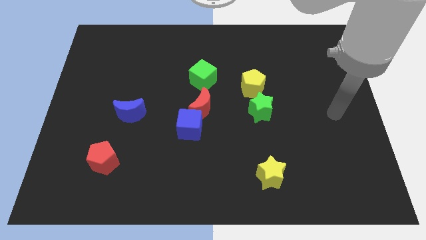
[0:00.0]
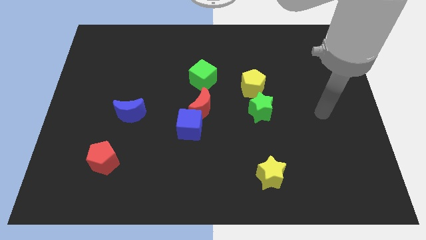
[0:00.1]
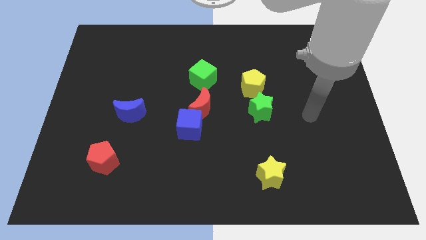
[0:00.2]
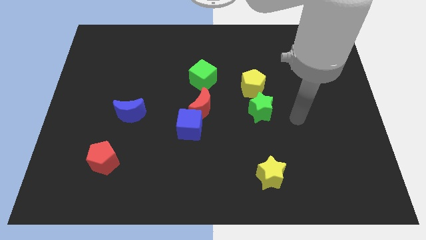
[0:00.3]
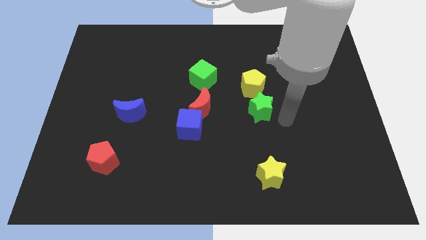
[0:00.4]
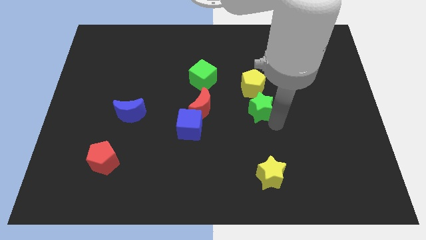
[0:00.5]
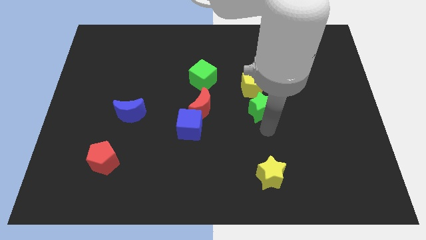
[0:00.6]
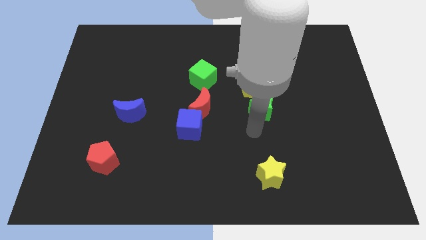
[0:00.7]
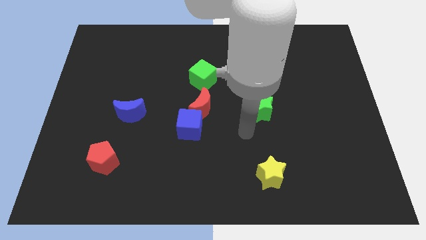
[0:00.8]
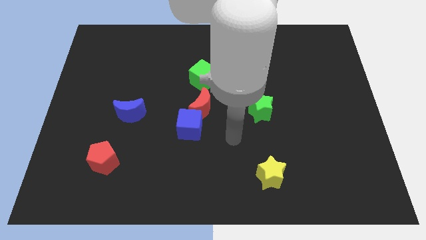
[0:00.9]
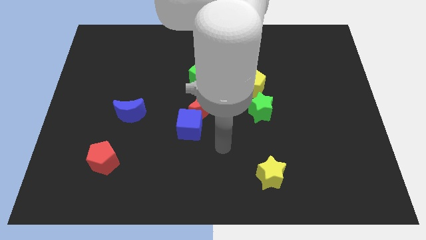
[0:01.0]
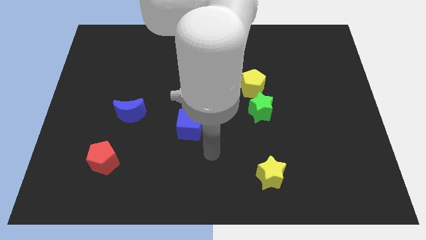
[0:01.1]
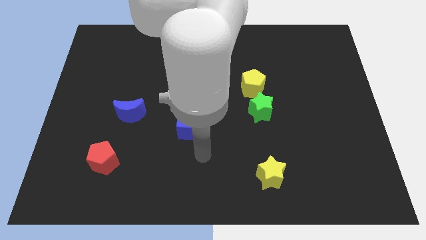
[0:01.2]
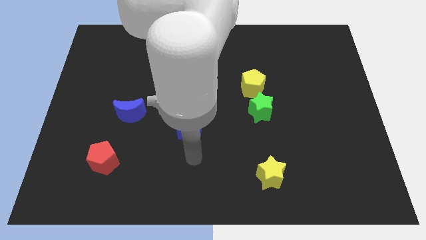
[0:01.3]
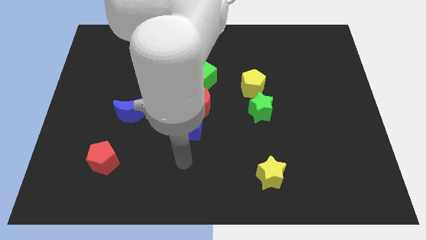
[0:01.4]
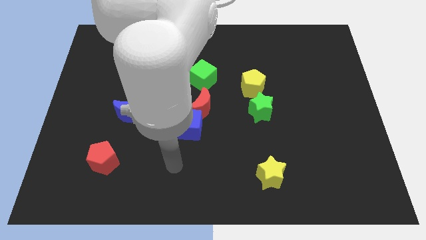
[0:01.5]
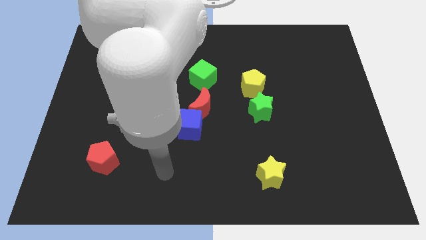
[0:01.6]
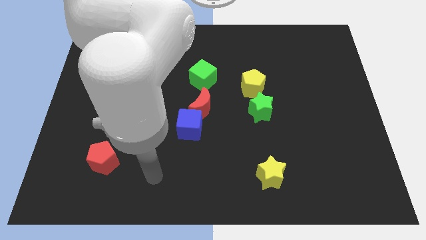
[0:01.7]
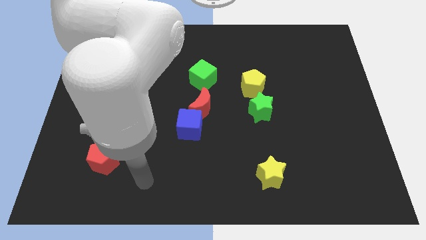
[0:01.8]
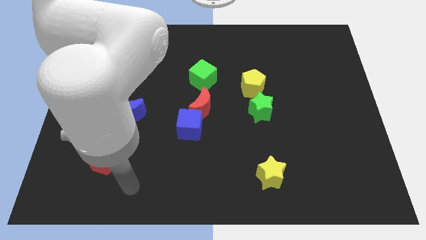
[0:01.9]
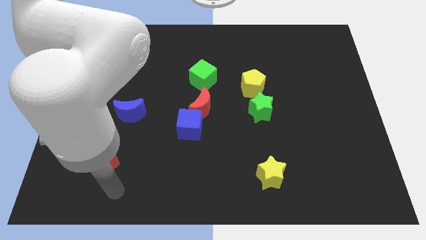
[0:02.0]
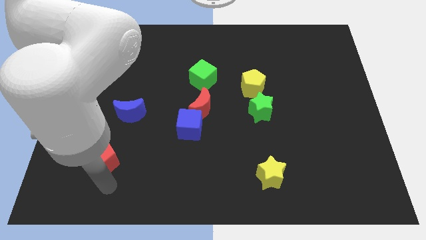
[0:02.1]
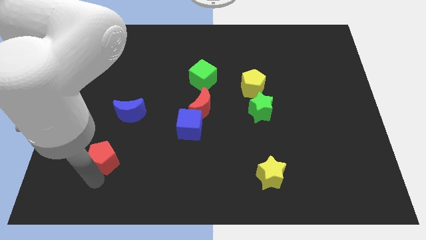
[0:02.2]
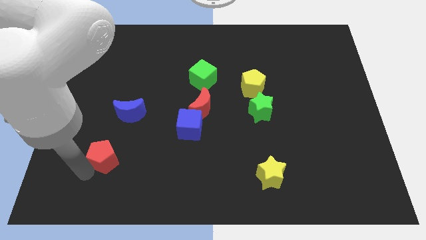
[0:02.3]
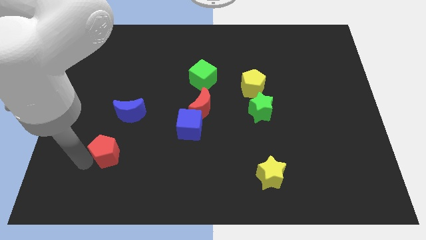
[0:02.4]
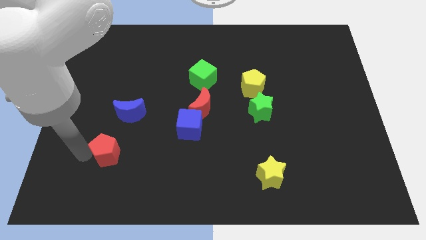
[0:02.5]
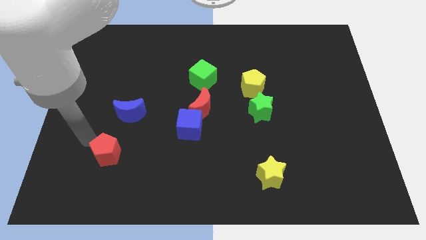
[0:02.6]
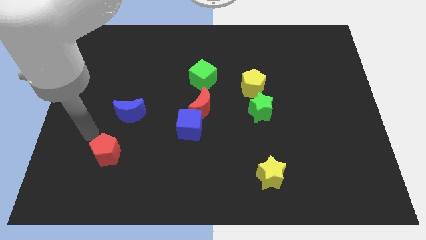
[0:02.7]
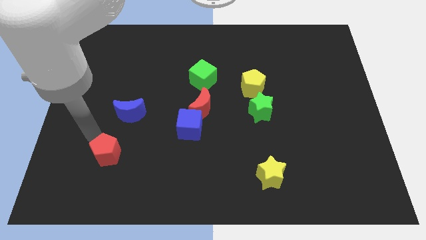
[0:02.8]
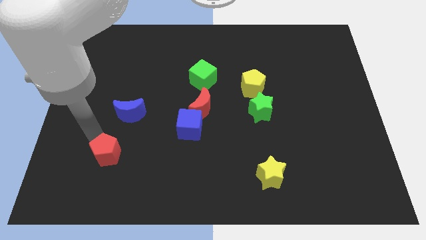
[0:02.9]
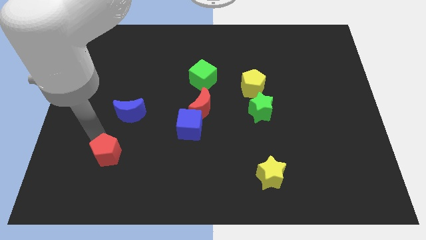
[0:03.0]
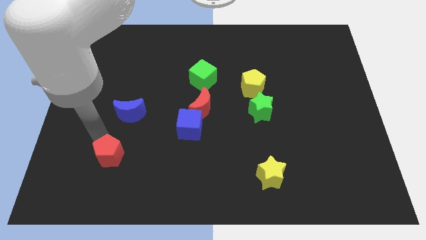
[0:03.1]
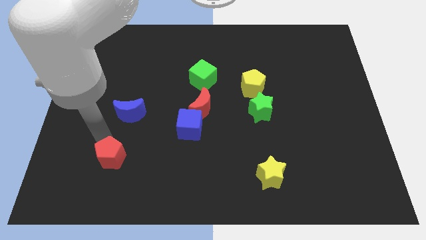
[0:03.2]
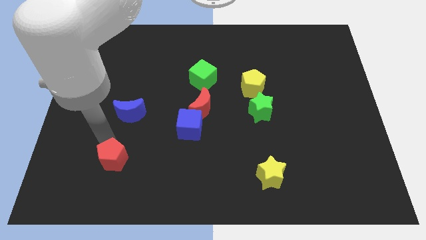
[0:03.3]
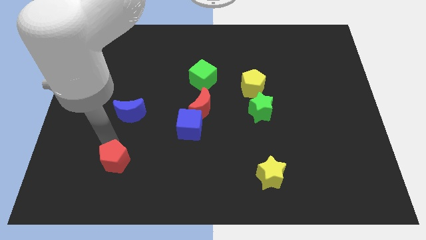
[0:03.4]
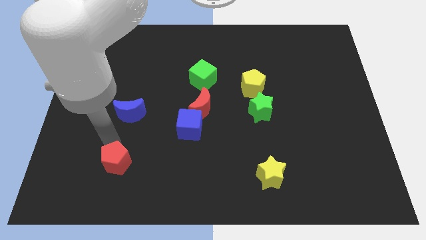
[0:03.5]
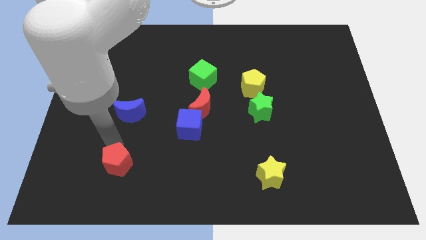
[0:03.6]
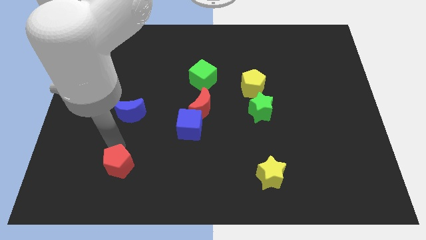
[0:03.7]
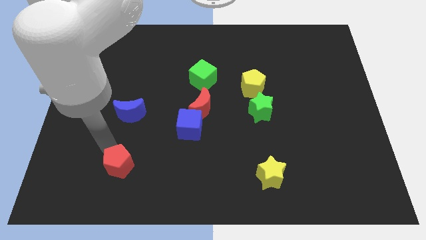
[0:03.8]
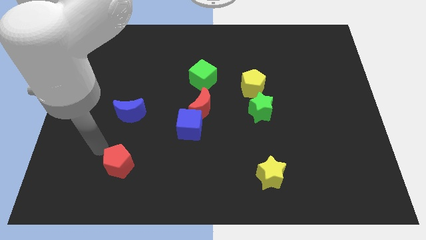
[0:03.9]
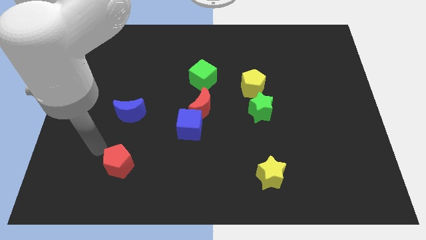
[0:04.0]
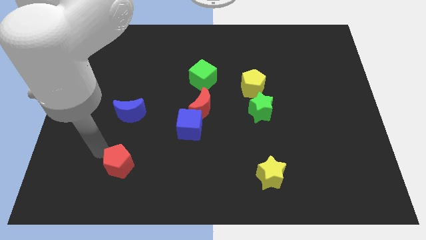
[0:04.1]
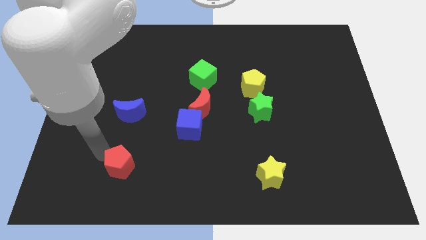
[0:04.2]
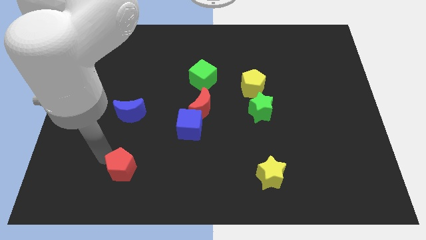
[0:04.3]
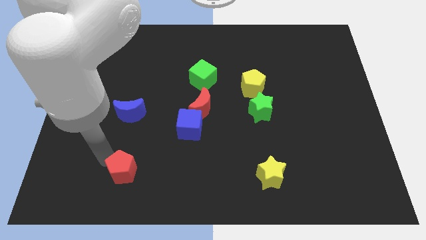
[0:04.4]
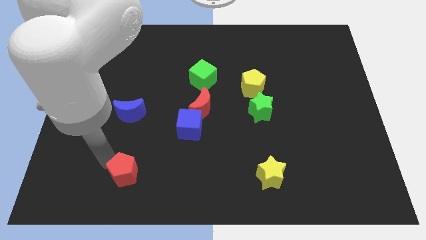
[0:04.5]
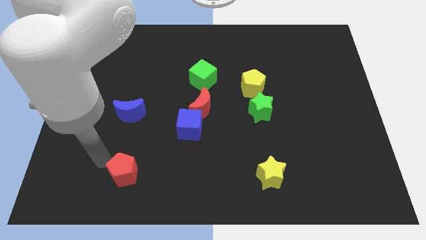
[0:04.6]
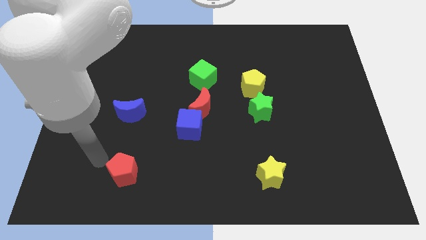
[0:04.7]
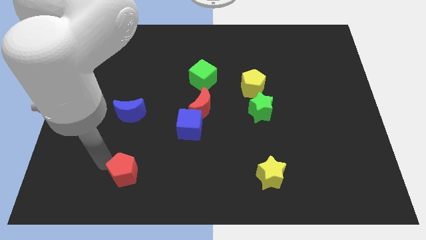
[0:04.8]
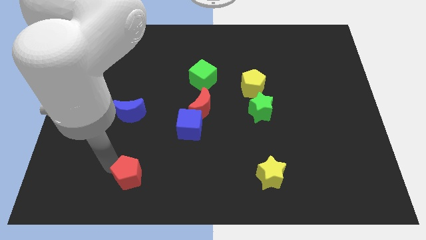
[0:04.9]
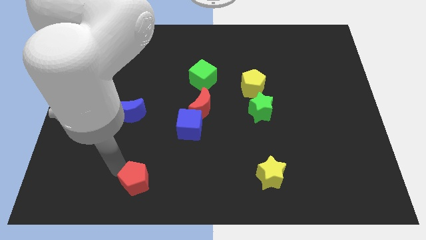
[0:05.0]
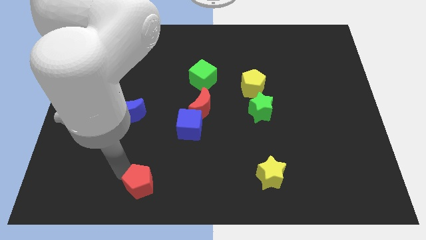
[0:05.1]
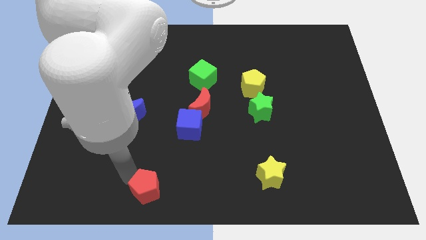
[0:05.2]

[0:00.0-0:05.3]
move the red pentagon to the bottom side

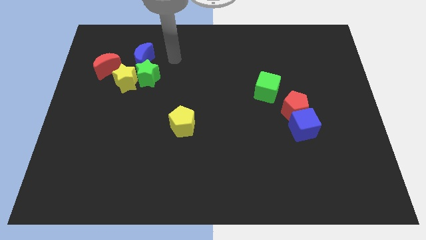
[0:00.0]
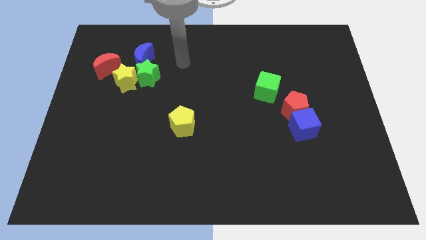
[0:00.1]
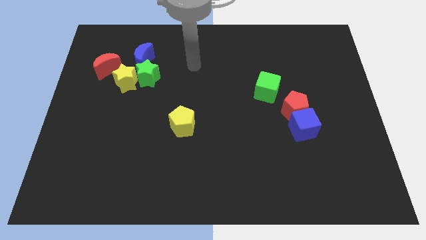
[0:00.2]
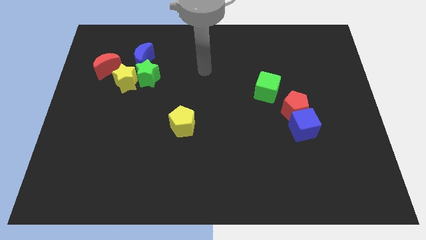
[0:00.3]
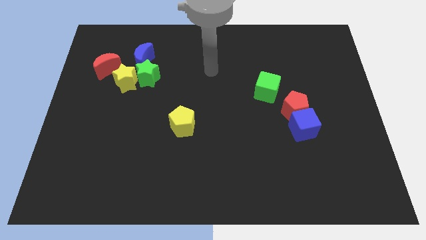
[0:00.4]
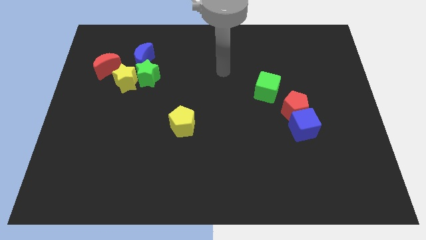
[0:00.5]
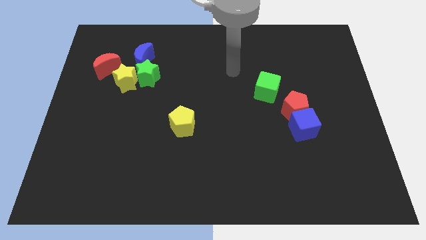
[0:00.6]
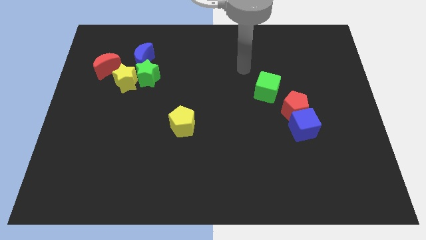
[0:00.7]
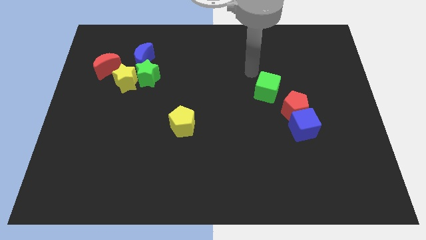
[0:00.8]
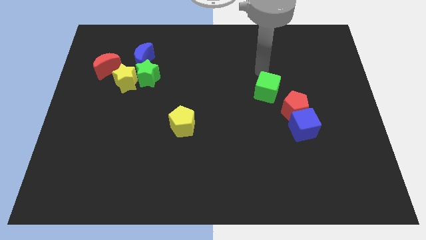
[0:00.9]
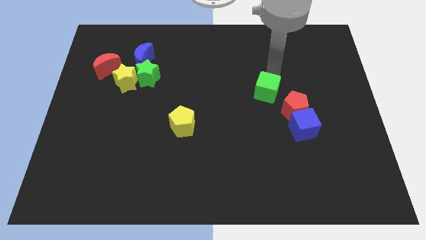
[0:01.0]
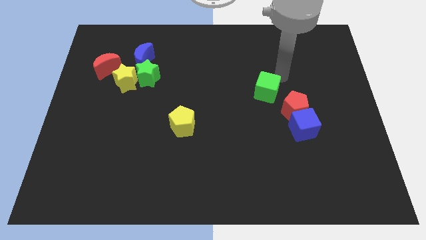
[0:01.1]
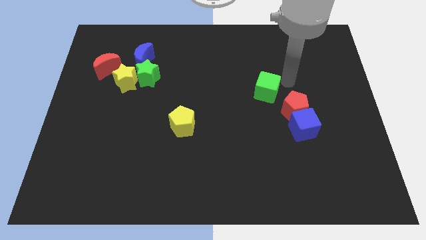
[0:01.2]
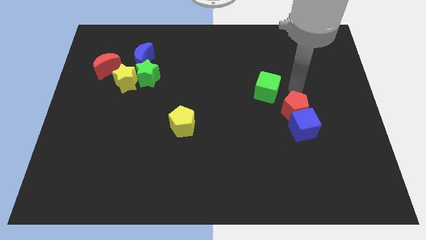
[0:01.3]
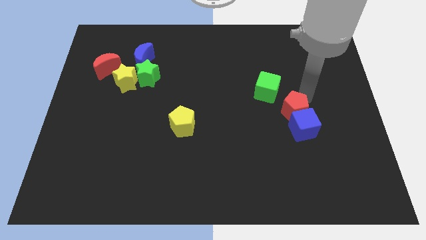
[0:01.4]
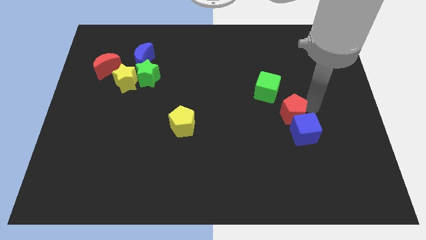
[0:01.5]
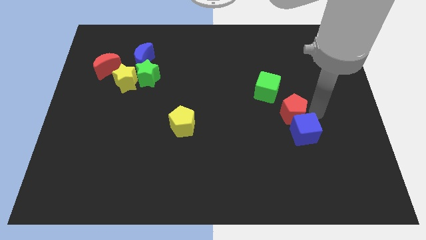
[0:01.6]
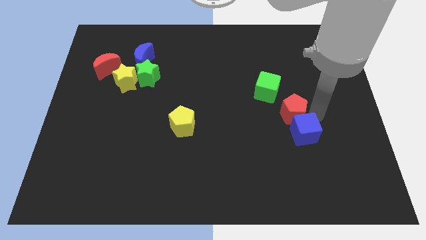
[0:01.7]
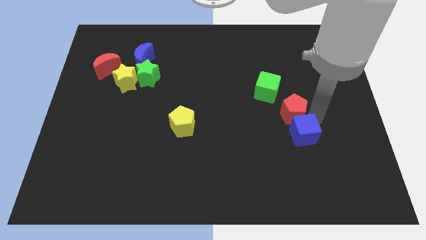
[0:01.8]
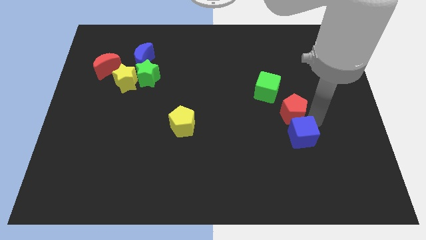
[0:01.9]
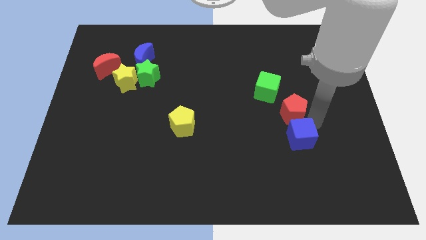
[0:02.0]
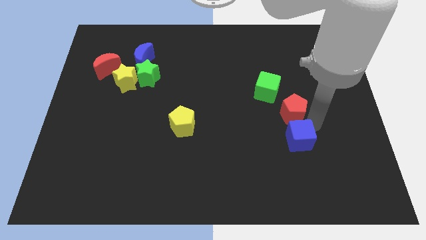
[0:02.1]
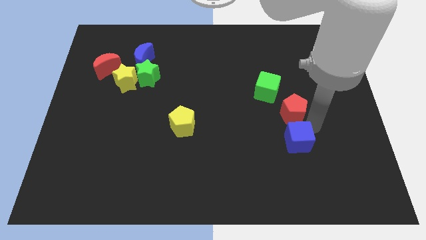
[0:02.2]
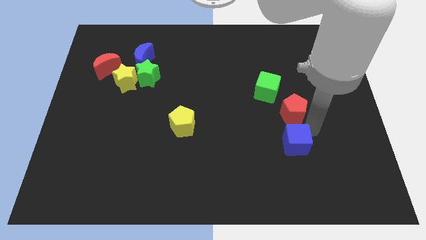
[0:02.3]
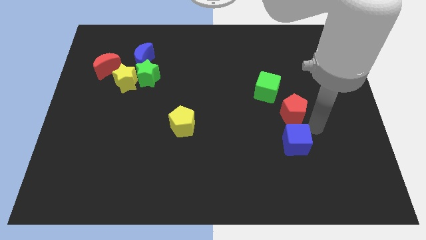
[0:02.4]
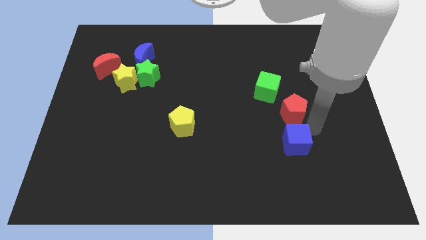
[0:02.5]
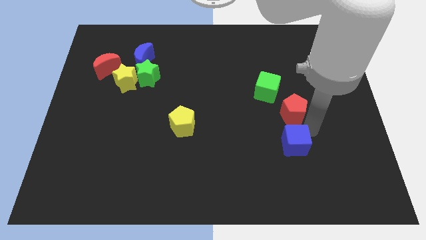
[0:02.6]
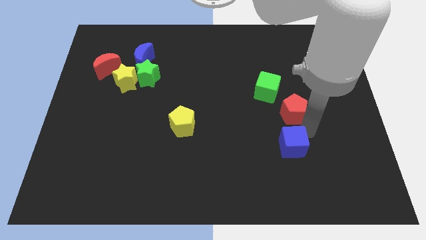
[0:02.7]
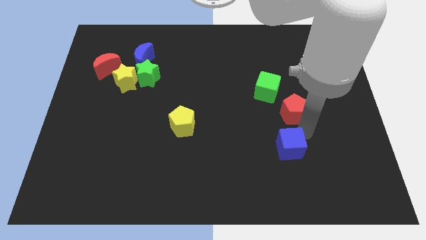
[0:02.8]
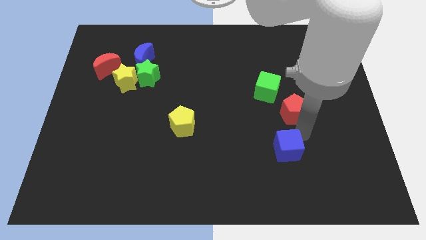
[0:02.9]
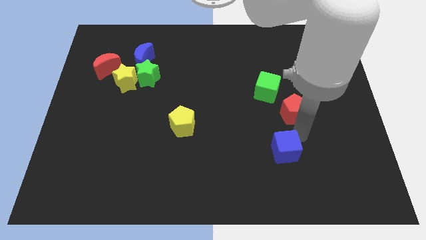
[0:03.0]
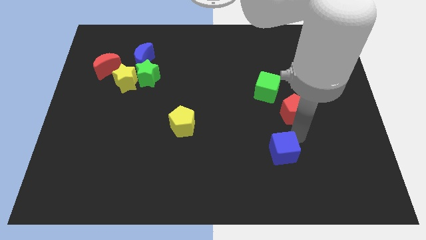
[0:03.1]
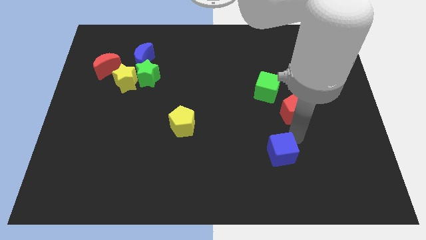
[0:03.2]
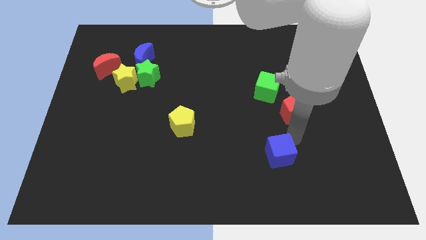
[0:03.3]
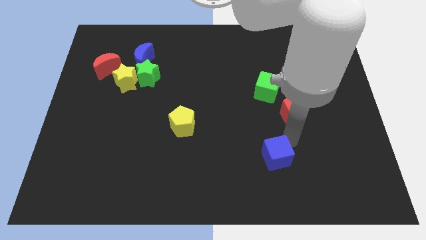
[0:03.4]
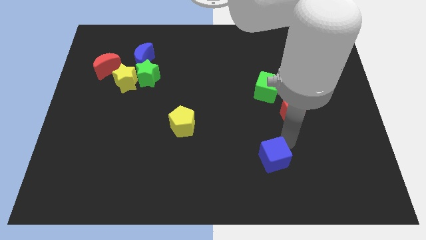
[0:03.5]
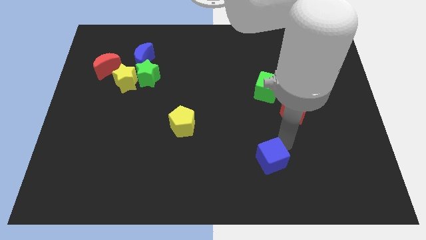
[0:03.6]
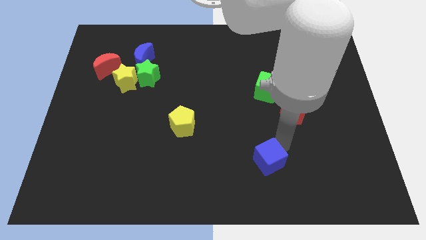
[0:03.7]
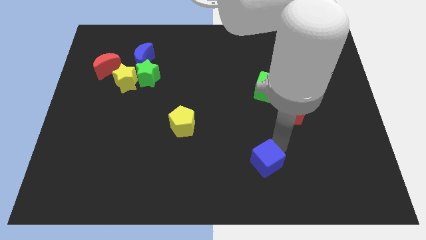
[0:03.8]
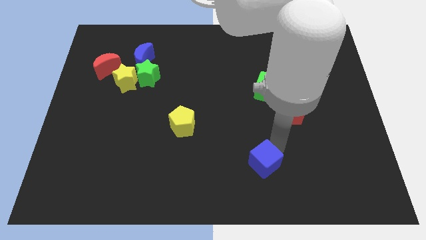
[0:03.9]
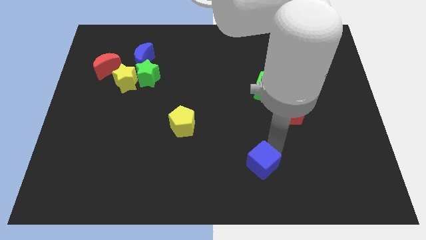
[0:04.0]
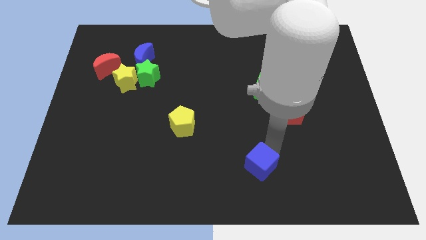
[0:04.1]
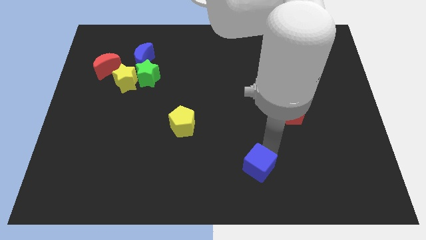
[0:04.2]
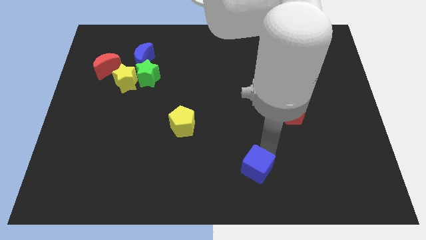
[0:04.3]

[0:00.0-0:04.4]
slide the blue cube to the bottom side
